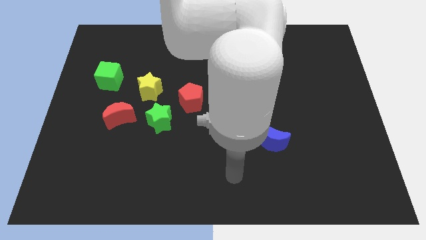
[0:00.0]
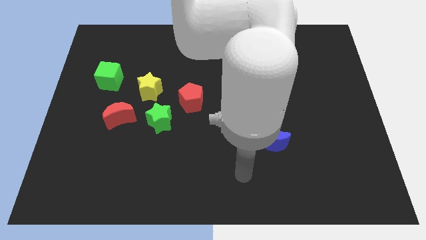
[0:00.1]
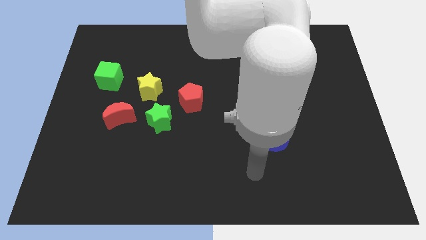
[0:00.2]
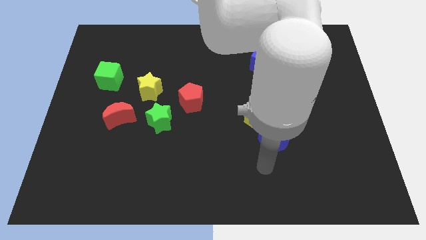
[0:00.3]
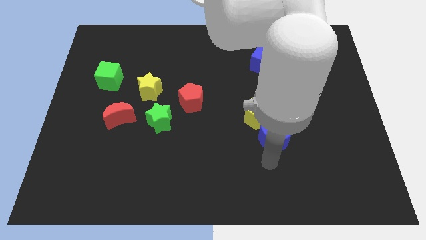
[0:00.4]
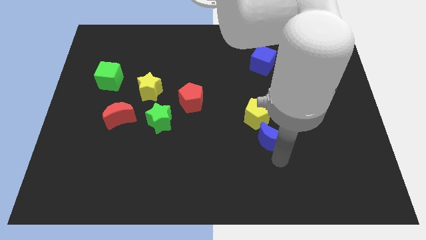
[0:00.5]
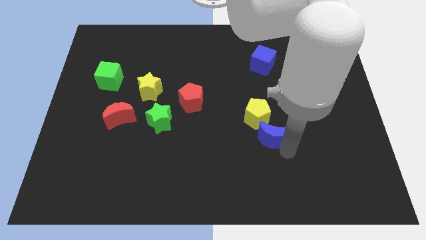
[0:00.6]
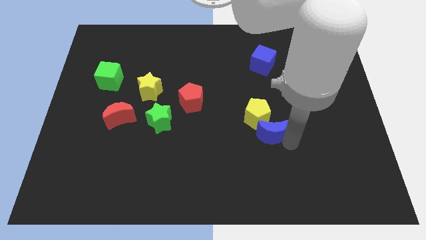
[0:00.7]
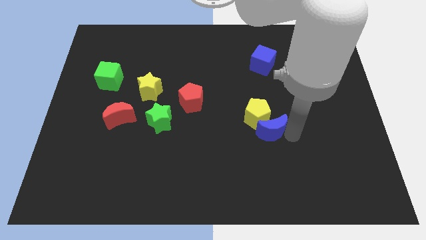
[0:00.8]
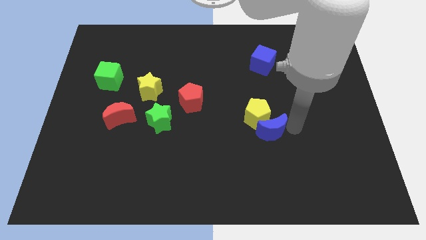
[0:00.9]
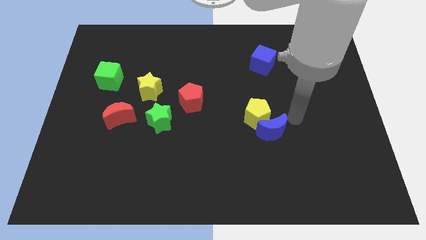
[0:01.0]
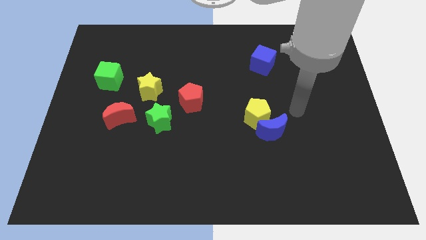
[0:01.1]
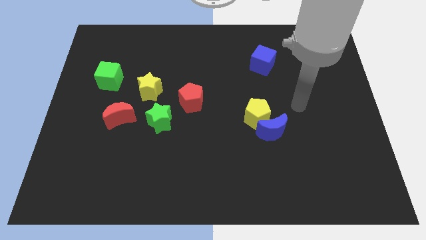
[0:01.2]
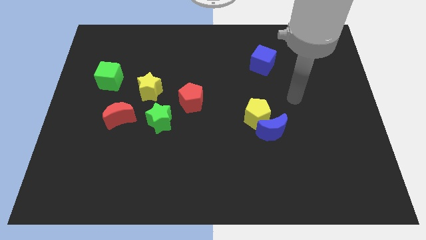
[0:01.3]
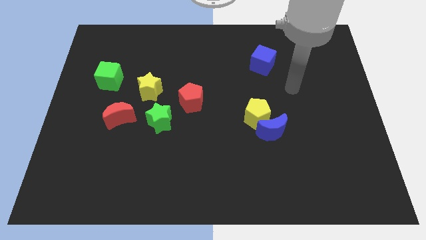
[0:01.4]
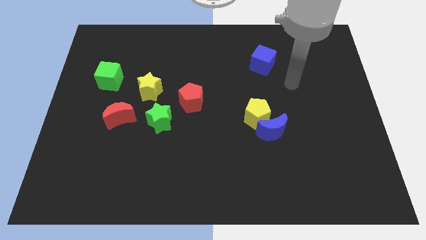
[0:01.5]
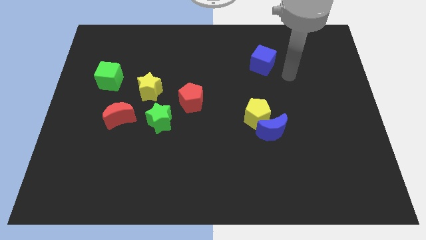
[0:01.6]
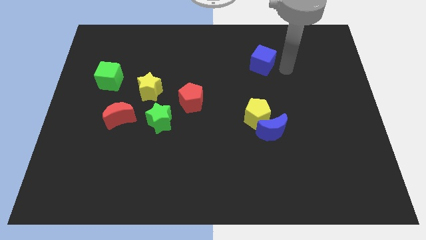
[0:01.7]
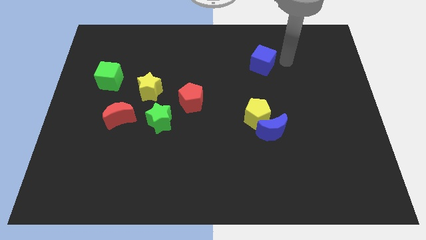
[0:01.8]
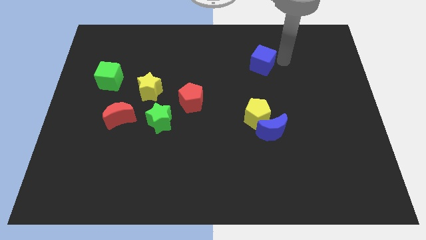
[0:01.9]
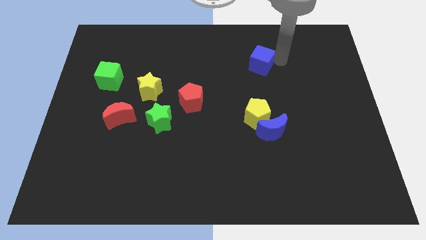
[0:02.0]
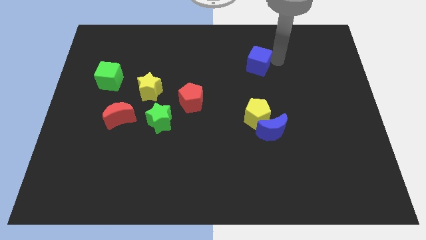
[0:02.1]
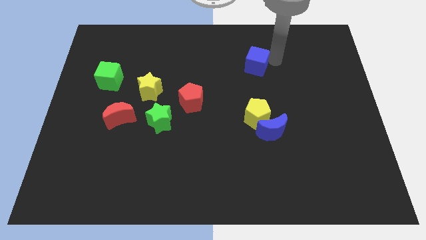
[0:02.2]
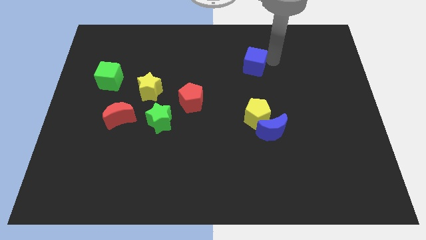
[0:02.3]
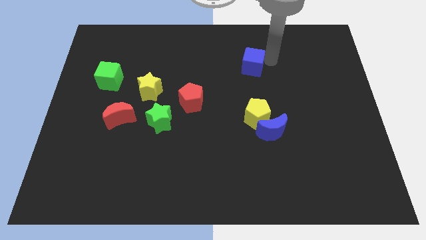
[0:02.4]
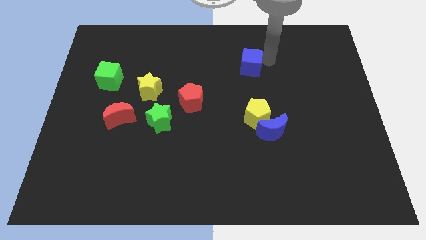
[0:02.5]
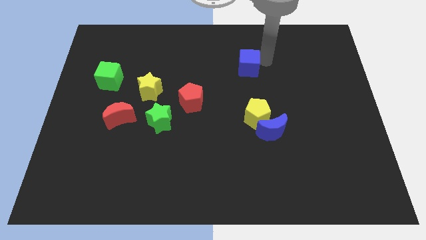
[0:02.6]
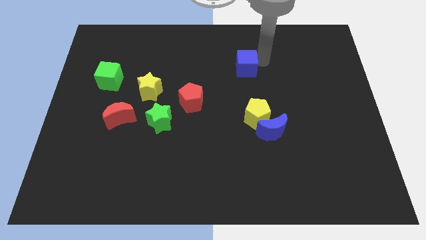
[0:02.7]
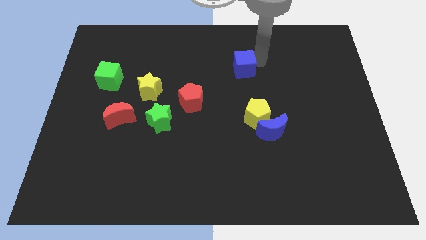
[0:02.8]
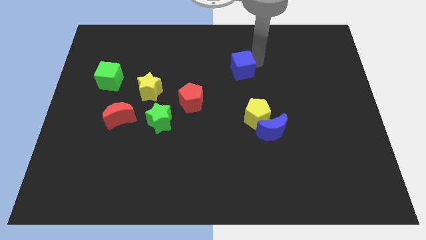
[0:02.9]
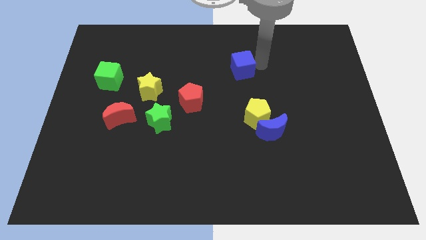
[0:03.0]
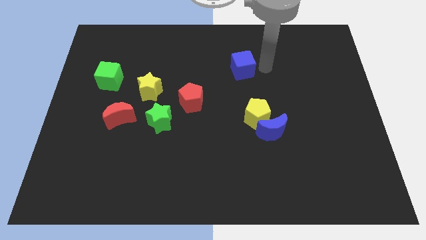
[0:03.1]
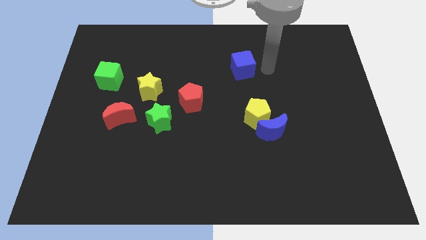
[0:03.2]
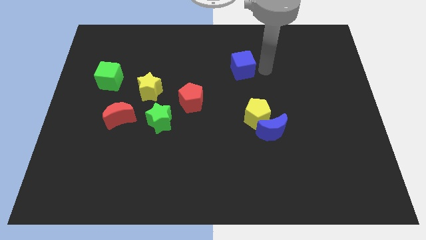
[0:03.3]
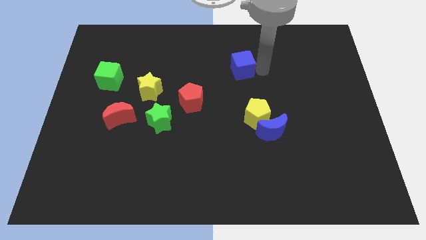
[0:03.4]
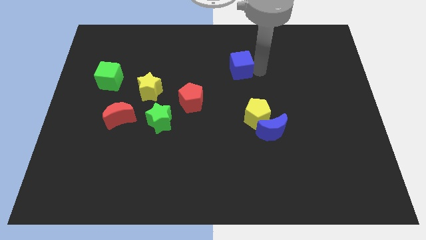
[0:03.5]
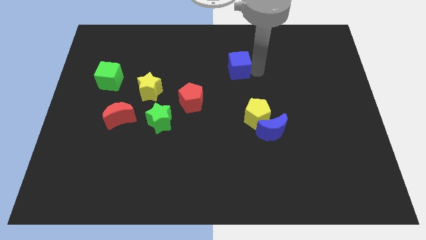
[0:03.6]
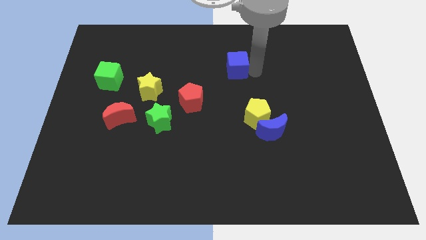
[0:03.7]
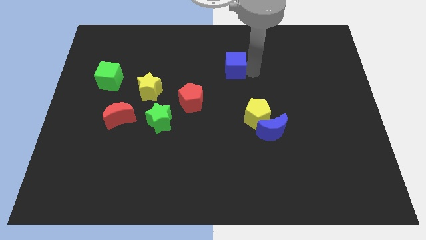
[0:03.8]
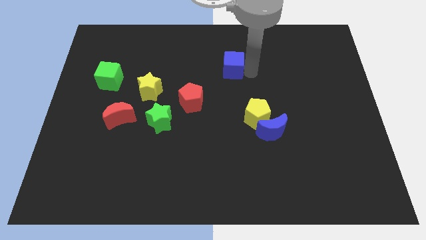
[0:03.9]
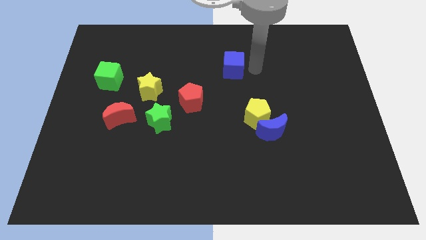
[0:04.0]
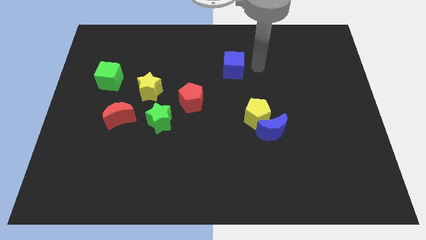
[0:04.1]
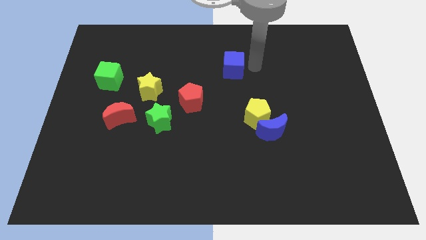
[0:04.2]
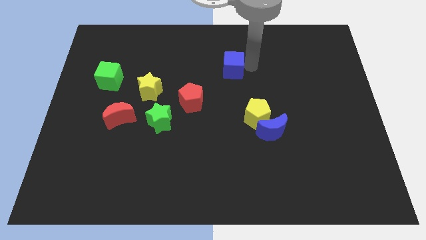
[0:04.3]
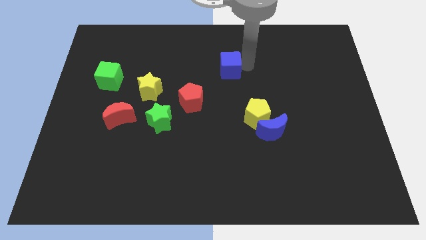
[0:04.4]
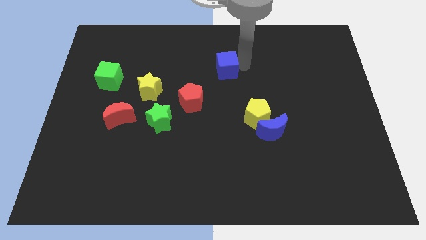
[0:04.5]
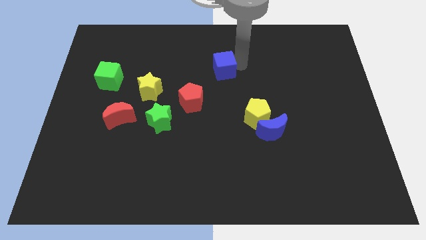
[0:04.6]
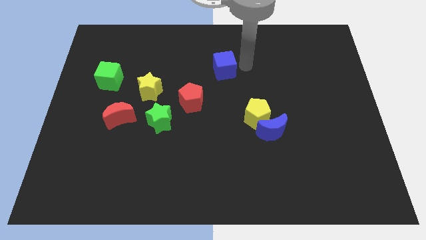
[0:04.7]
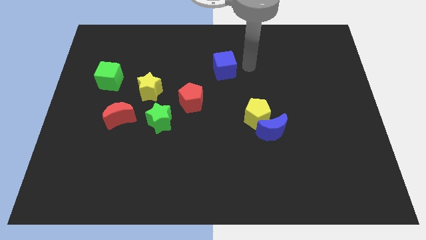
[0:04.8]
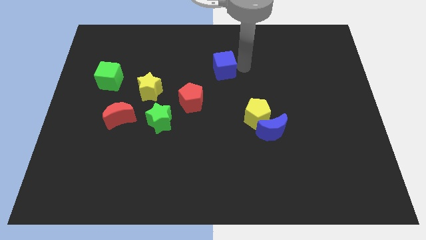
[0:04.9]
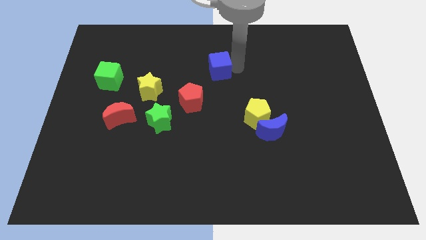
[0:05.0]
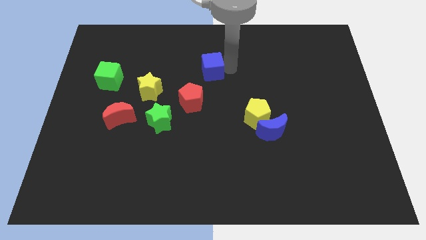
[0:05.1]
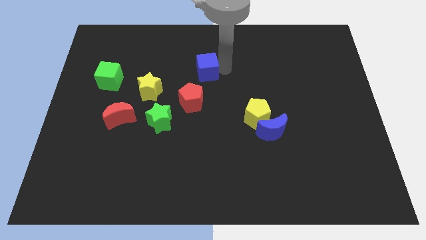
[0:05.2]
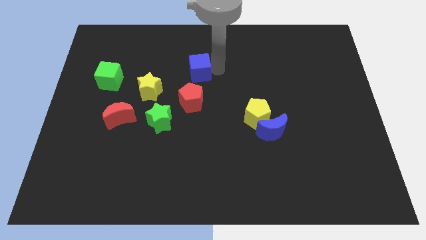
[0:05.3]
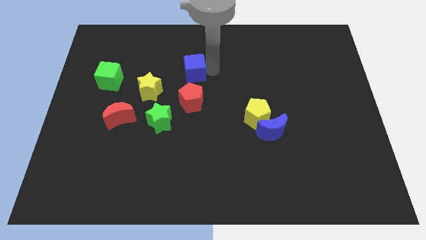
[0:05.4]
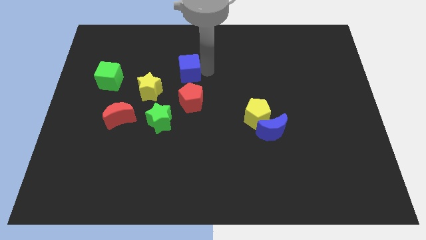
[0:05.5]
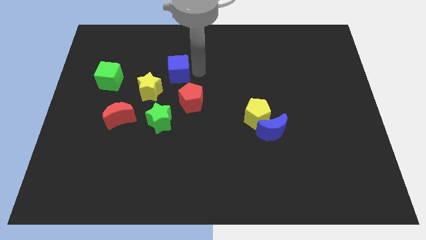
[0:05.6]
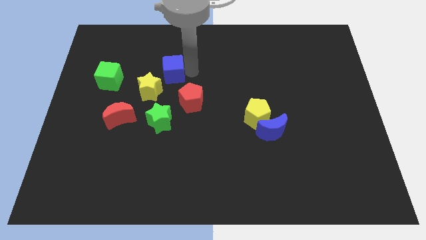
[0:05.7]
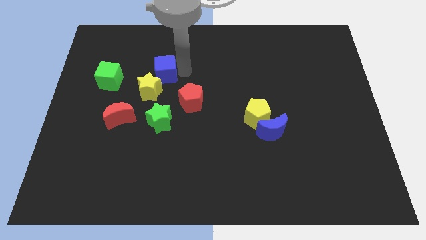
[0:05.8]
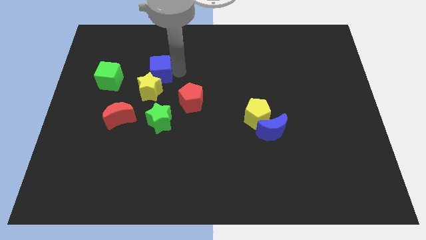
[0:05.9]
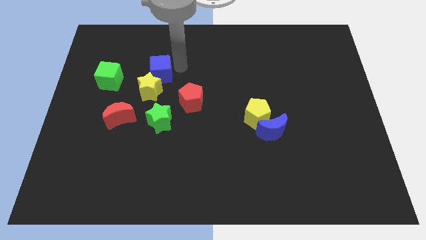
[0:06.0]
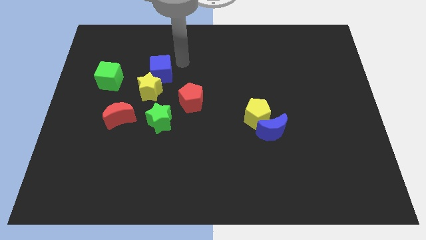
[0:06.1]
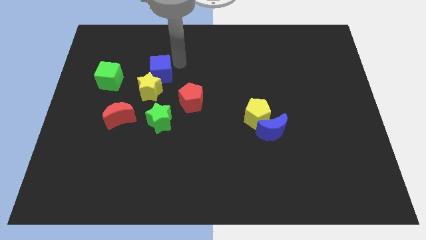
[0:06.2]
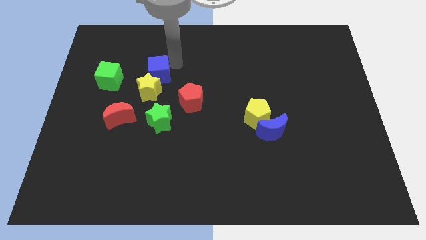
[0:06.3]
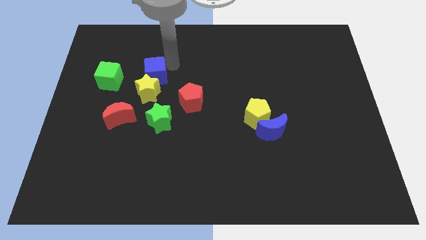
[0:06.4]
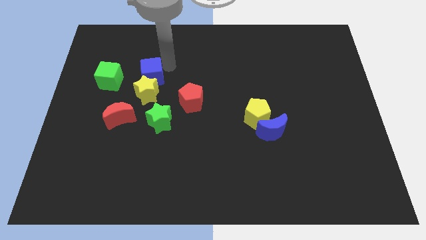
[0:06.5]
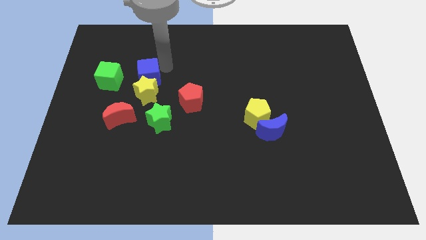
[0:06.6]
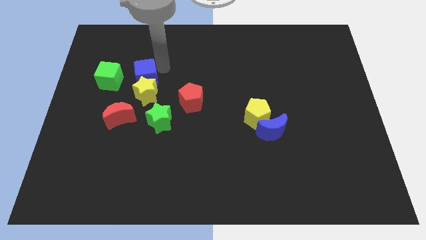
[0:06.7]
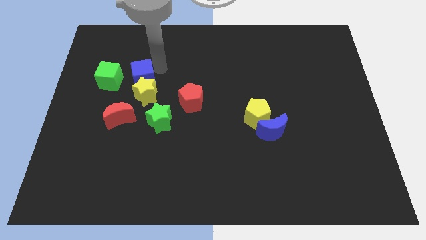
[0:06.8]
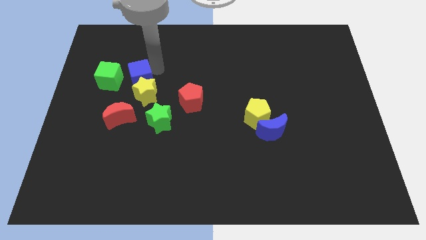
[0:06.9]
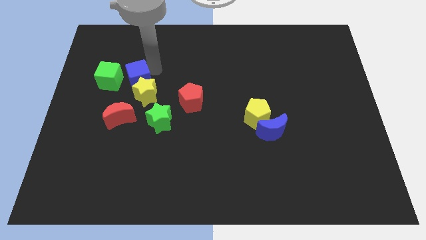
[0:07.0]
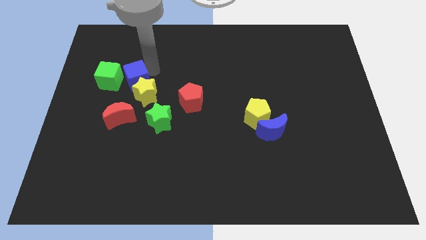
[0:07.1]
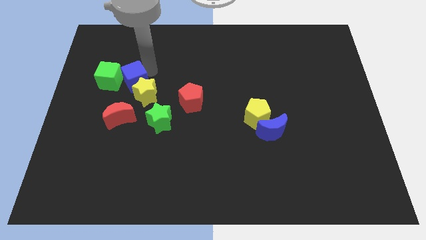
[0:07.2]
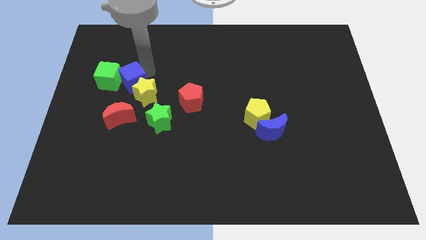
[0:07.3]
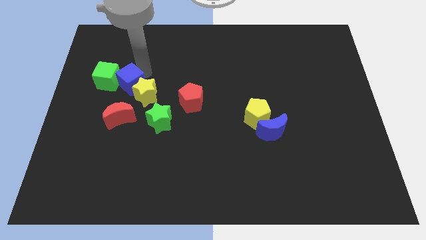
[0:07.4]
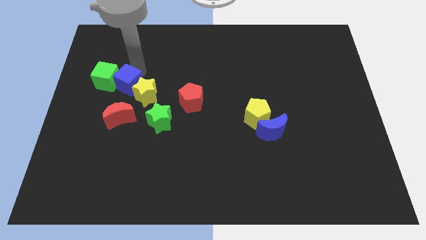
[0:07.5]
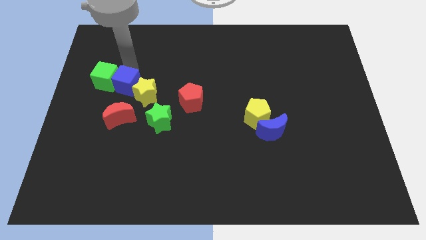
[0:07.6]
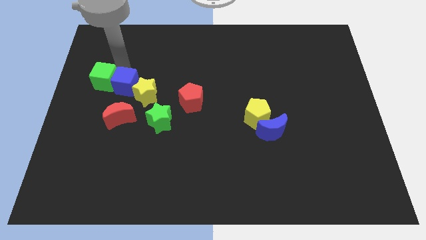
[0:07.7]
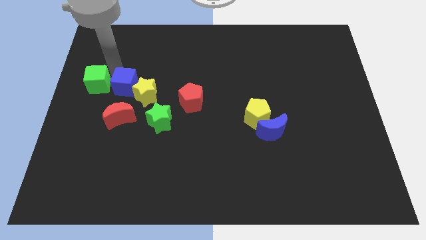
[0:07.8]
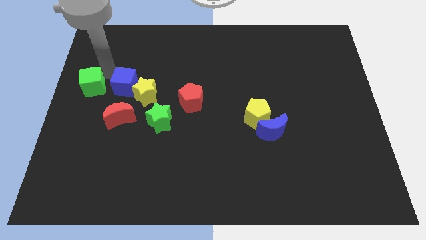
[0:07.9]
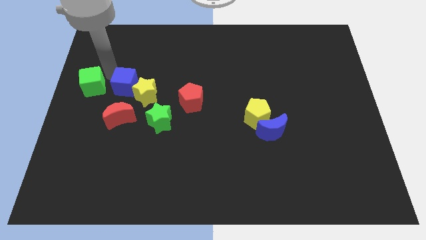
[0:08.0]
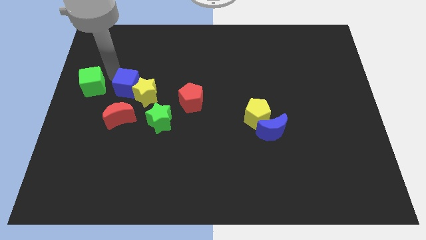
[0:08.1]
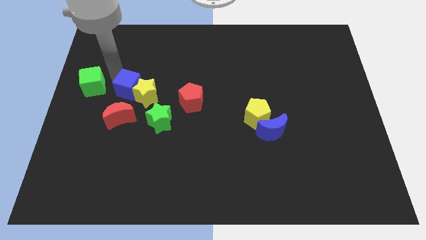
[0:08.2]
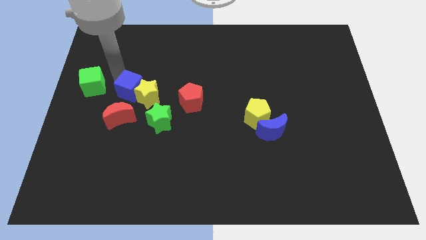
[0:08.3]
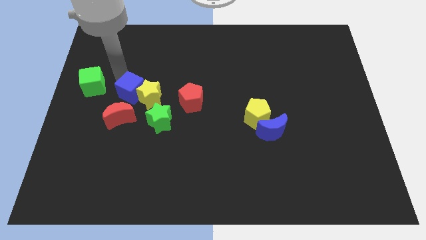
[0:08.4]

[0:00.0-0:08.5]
put the blue cube to the left of the red pentagon
